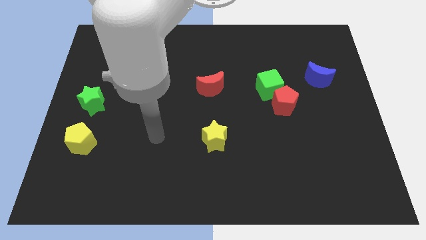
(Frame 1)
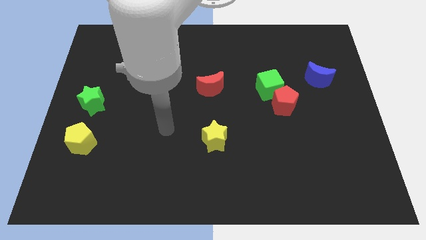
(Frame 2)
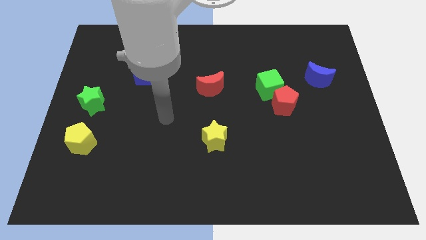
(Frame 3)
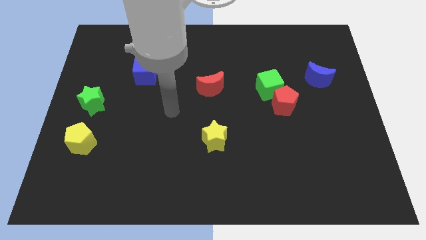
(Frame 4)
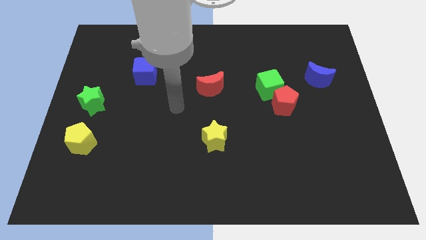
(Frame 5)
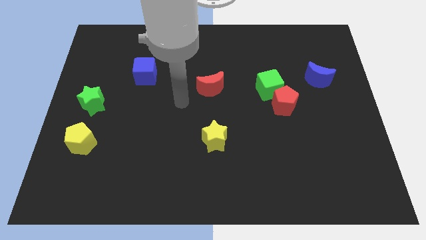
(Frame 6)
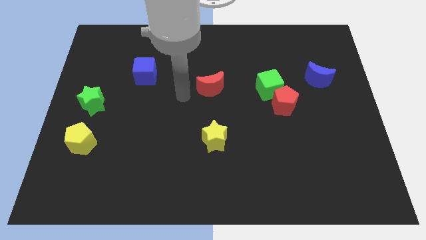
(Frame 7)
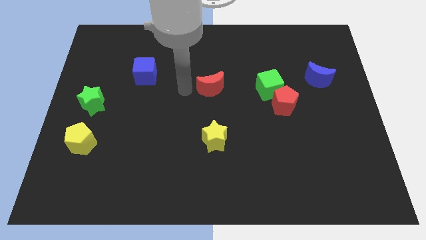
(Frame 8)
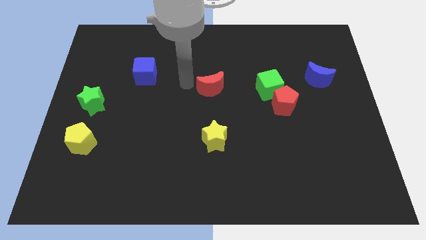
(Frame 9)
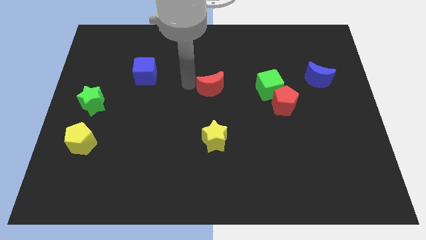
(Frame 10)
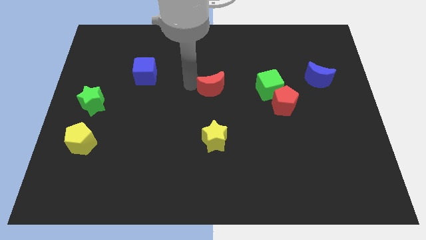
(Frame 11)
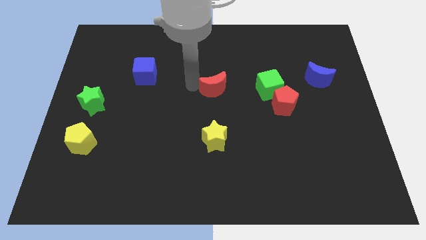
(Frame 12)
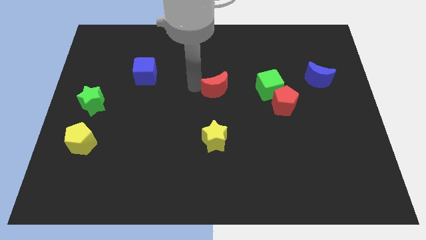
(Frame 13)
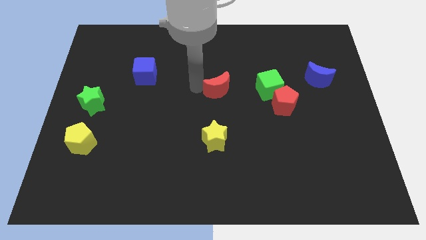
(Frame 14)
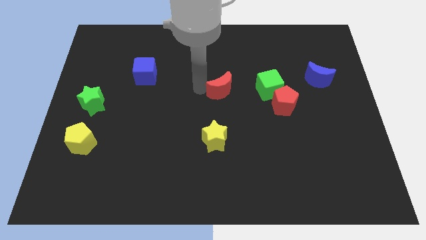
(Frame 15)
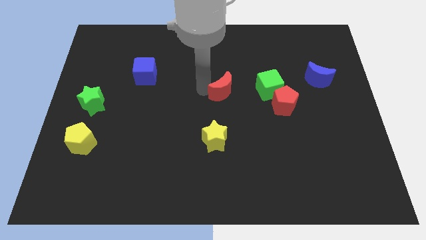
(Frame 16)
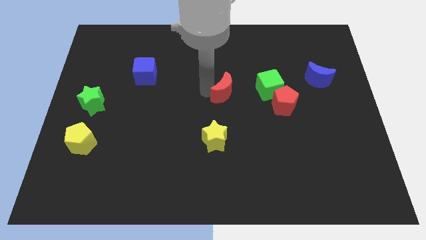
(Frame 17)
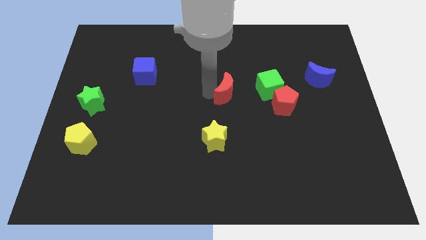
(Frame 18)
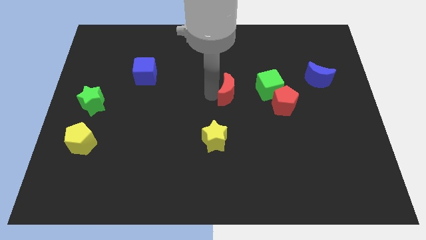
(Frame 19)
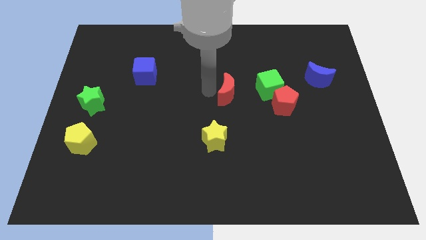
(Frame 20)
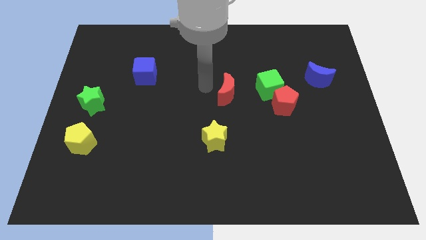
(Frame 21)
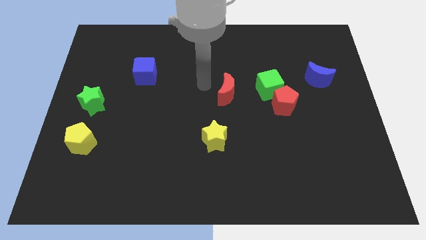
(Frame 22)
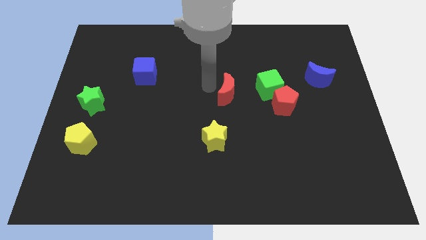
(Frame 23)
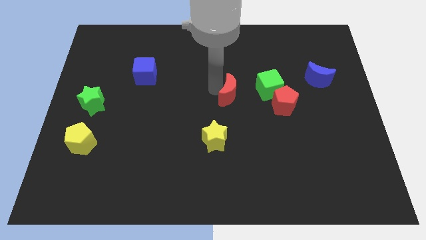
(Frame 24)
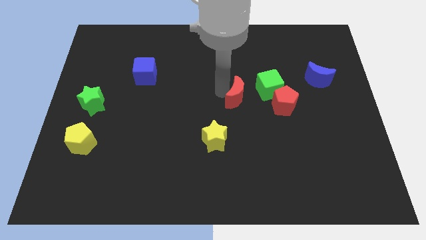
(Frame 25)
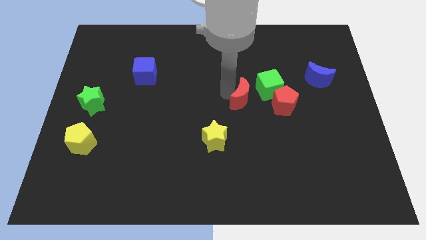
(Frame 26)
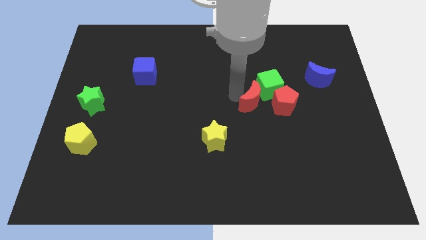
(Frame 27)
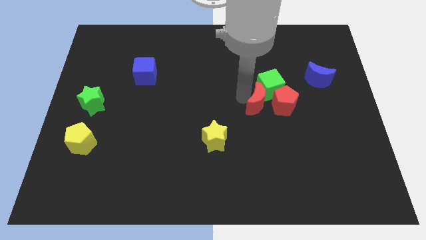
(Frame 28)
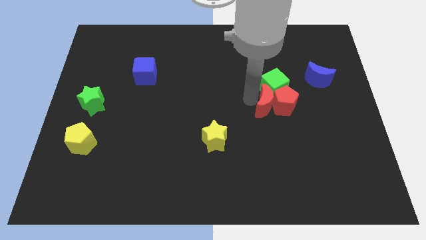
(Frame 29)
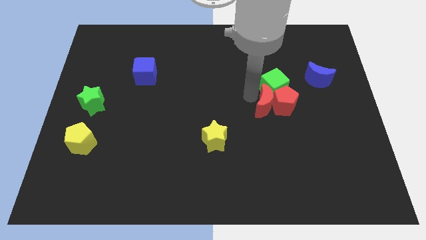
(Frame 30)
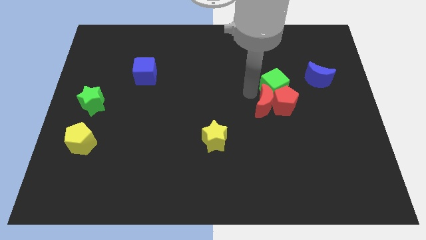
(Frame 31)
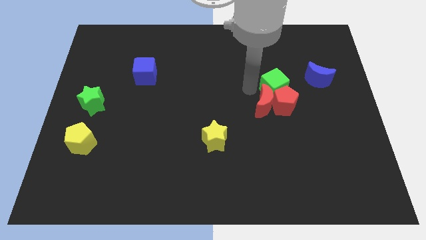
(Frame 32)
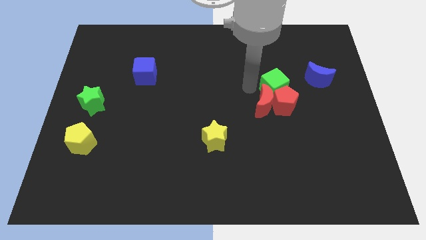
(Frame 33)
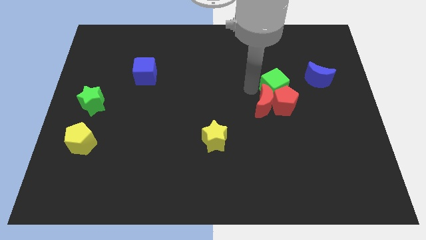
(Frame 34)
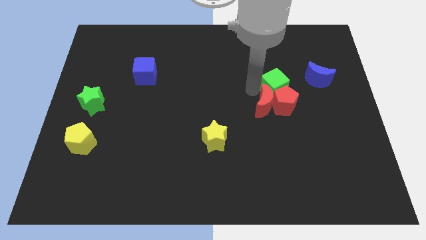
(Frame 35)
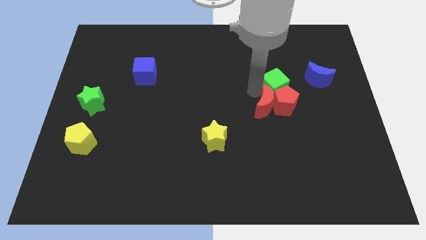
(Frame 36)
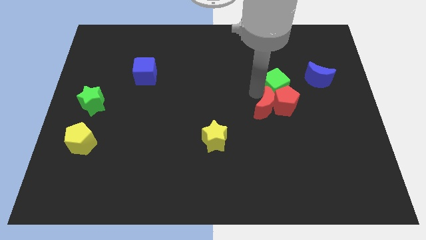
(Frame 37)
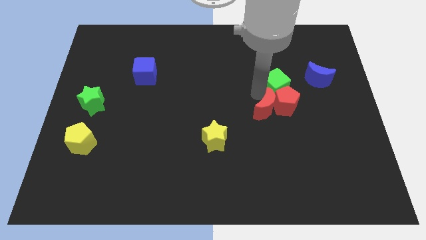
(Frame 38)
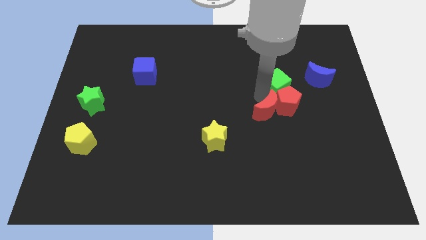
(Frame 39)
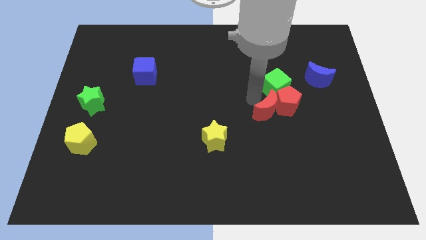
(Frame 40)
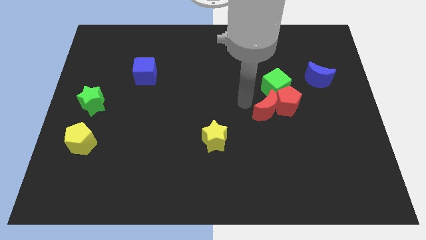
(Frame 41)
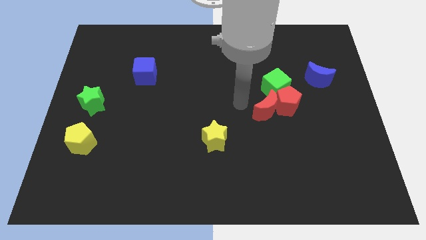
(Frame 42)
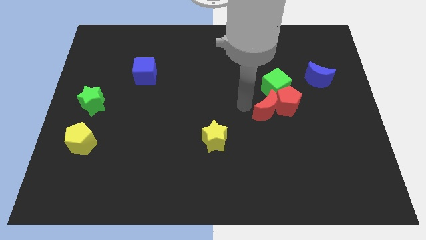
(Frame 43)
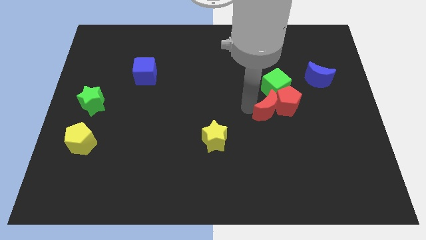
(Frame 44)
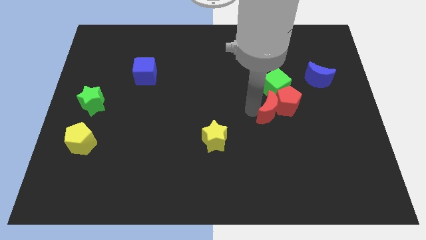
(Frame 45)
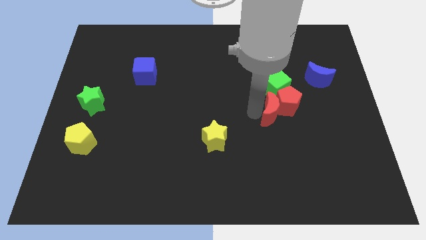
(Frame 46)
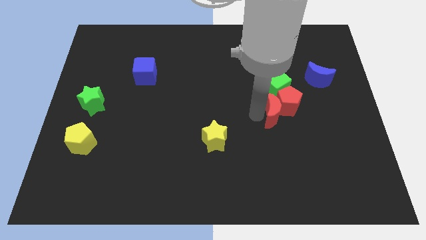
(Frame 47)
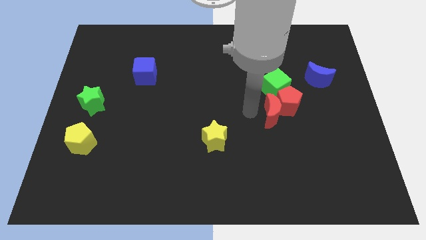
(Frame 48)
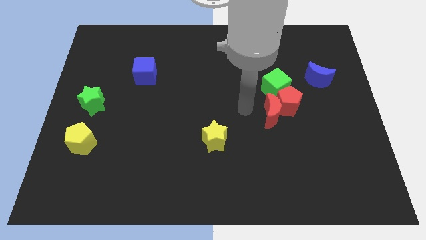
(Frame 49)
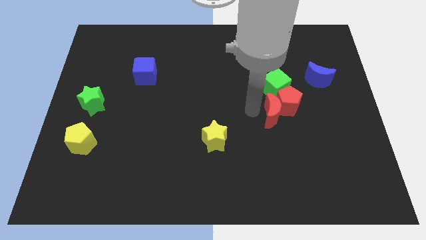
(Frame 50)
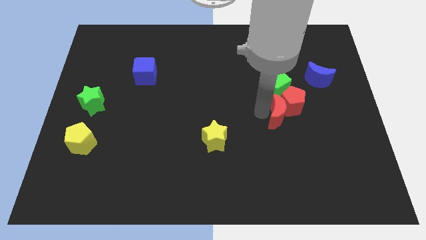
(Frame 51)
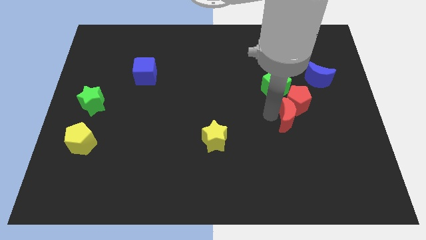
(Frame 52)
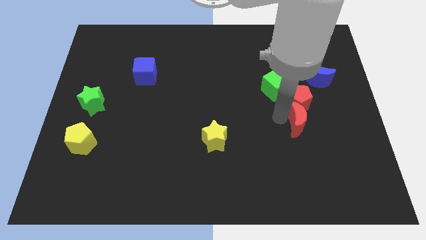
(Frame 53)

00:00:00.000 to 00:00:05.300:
push the red moon to the bottom right side of the red pentagon

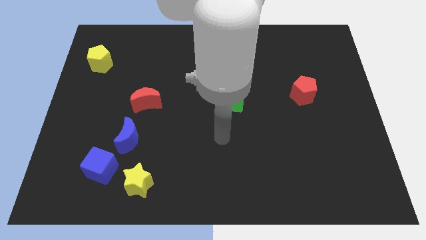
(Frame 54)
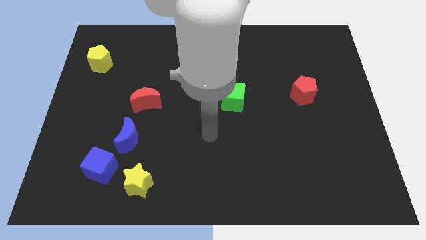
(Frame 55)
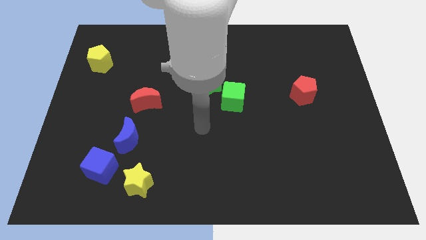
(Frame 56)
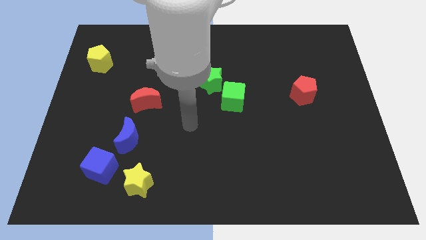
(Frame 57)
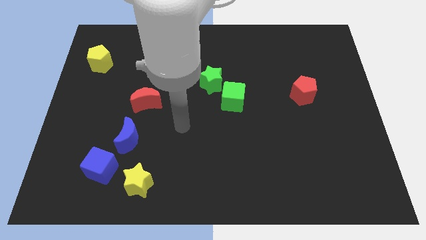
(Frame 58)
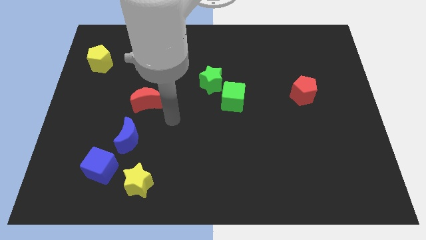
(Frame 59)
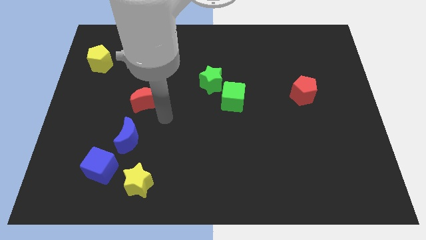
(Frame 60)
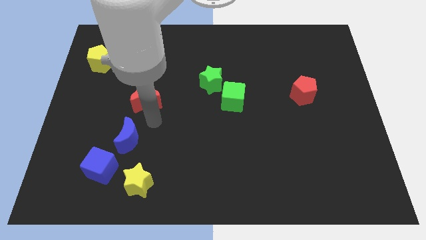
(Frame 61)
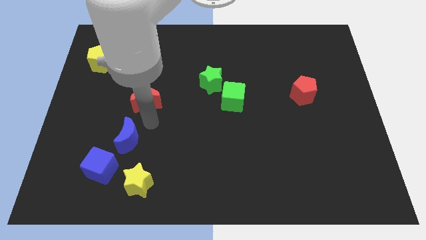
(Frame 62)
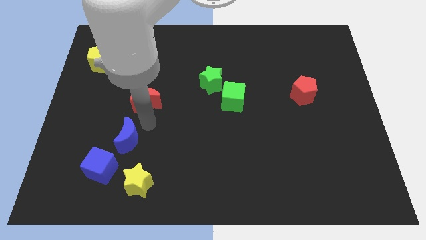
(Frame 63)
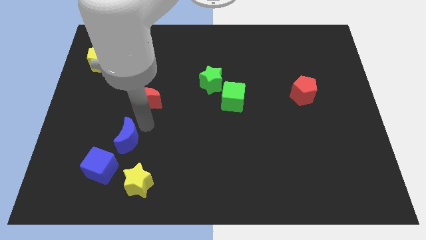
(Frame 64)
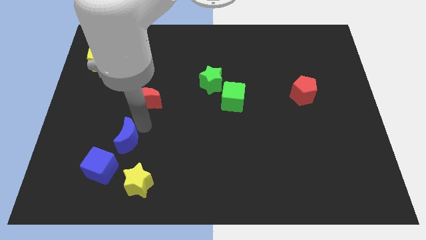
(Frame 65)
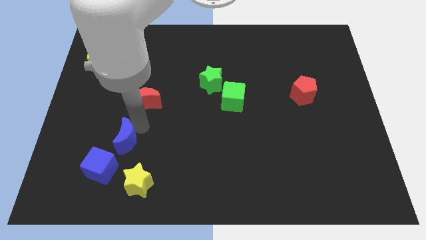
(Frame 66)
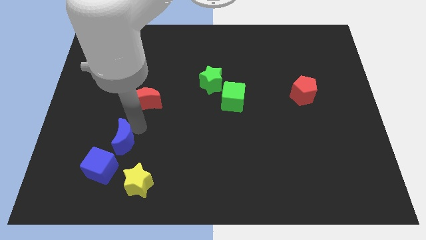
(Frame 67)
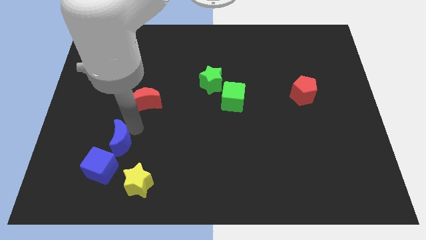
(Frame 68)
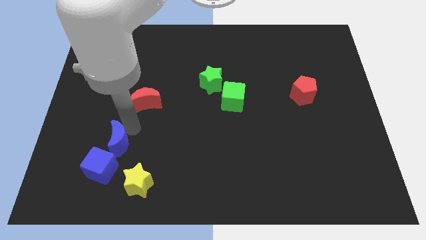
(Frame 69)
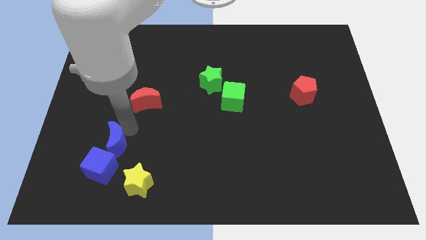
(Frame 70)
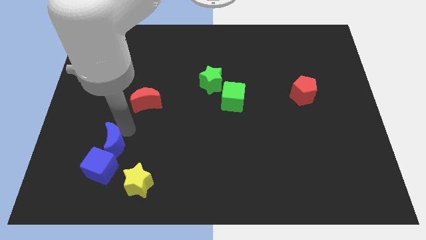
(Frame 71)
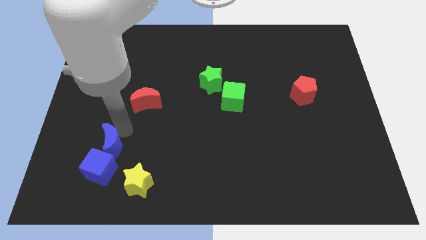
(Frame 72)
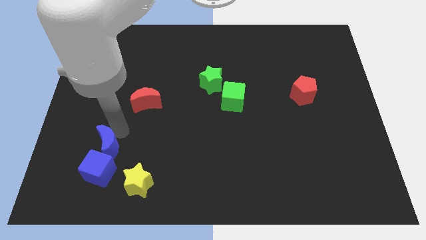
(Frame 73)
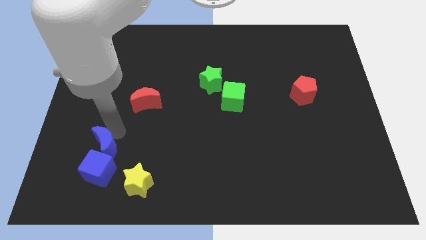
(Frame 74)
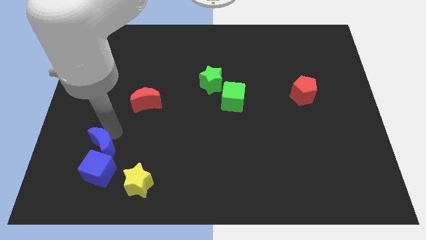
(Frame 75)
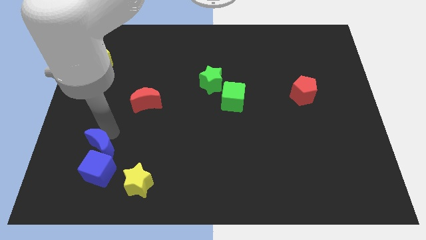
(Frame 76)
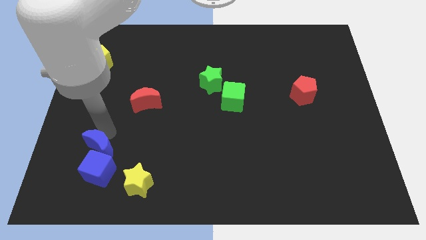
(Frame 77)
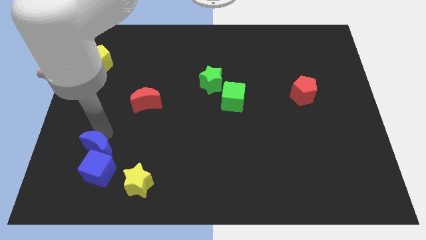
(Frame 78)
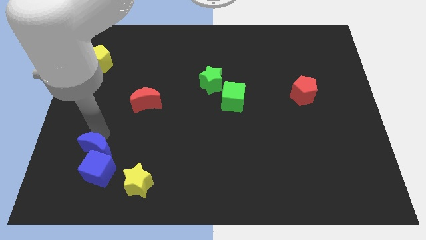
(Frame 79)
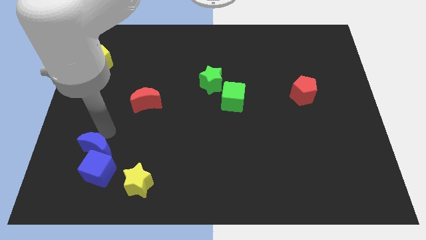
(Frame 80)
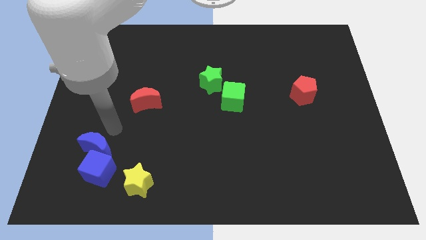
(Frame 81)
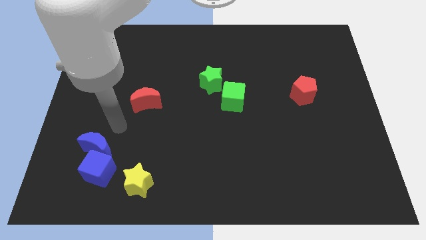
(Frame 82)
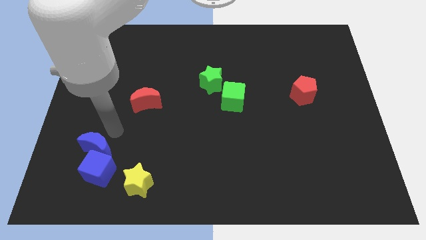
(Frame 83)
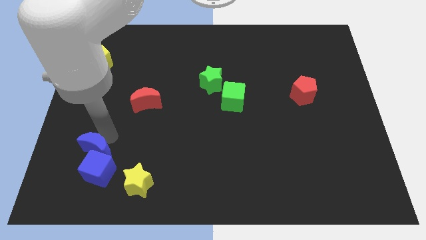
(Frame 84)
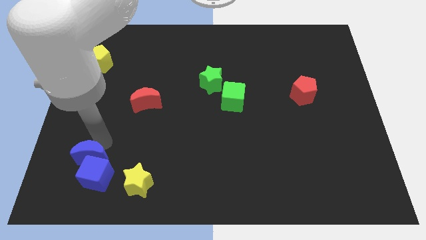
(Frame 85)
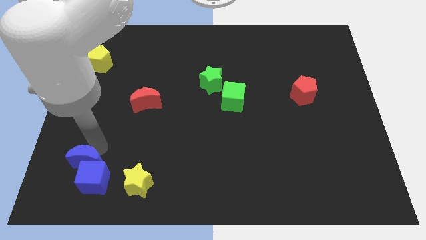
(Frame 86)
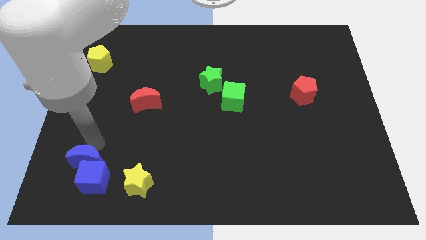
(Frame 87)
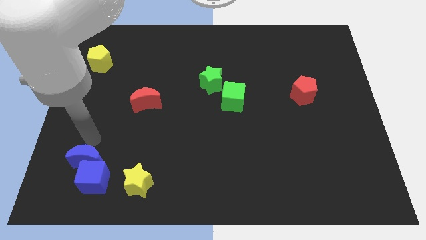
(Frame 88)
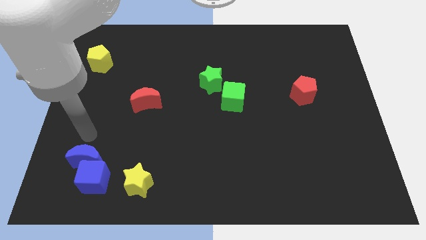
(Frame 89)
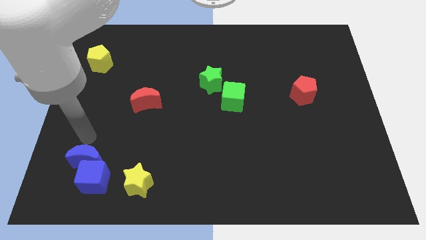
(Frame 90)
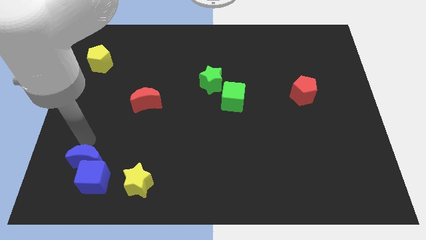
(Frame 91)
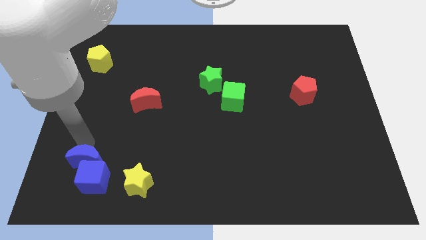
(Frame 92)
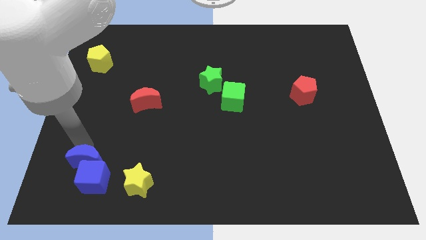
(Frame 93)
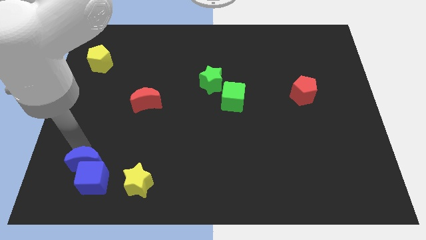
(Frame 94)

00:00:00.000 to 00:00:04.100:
put the blue moon to the left of the yellow star
